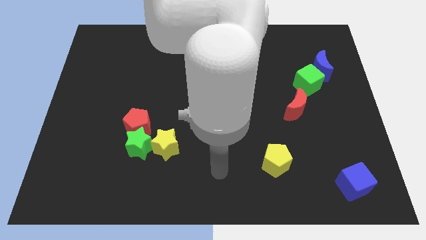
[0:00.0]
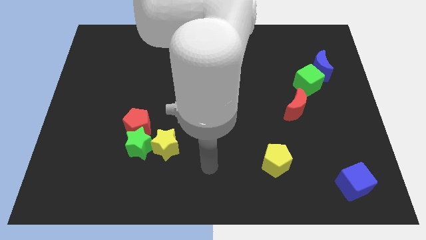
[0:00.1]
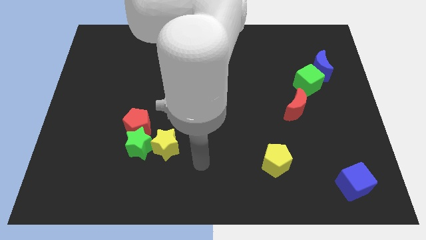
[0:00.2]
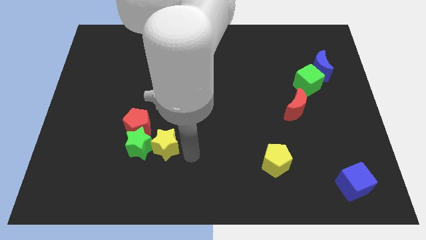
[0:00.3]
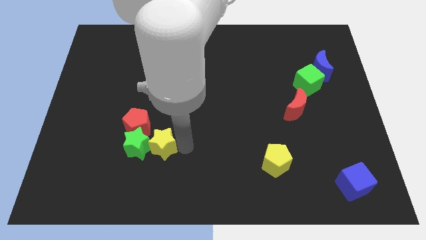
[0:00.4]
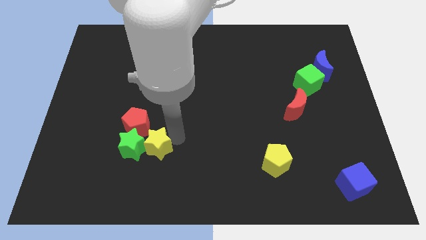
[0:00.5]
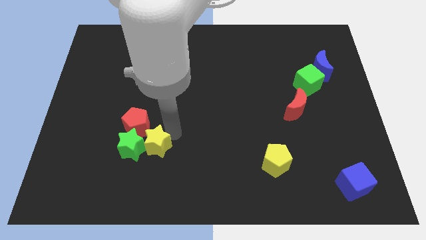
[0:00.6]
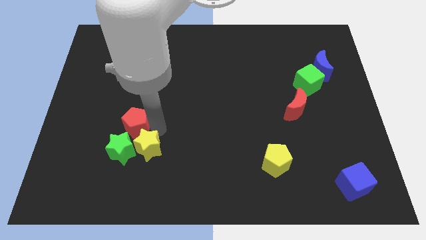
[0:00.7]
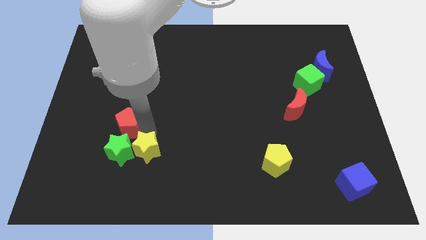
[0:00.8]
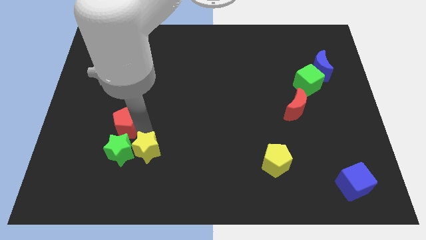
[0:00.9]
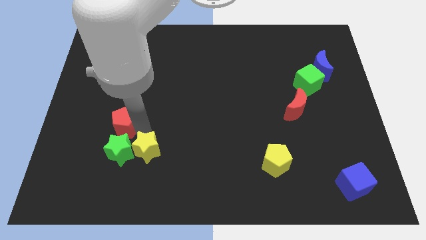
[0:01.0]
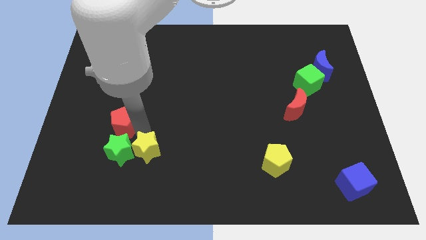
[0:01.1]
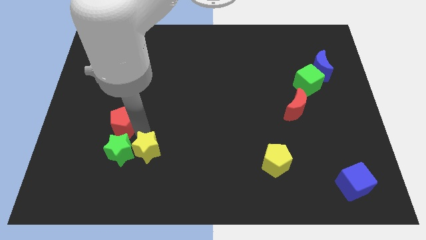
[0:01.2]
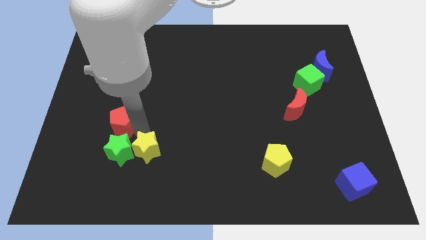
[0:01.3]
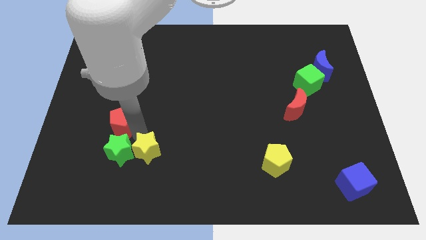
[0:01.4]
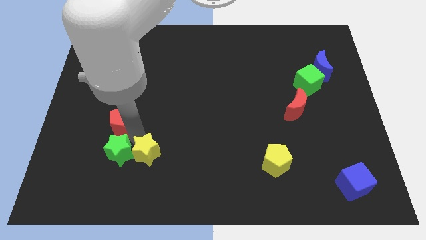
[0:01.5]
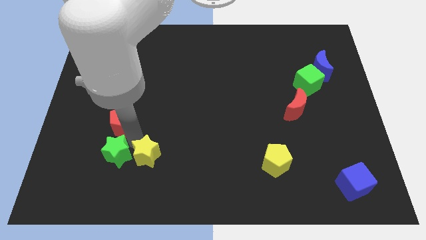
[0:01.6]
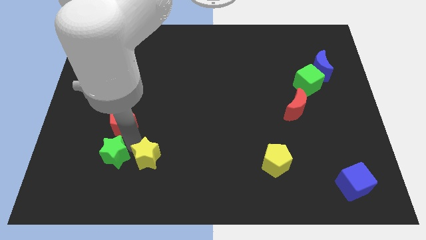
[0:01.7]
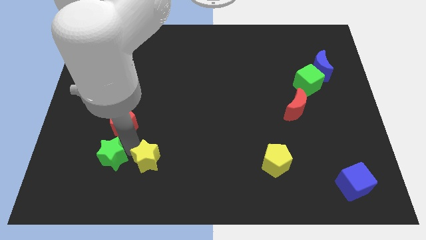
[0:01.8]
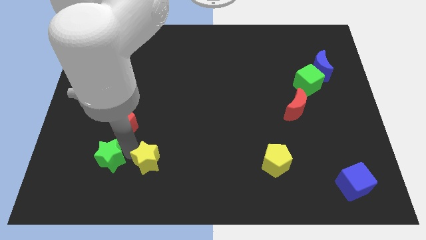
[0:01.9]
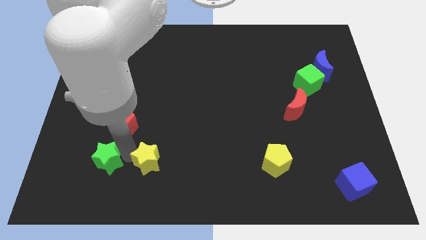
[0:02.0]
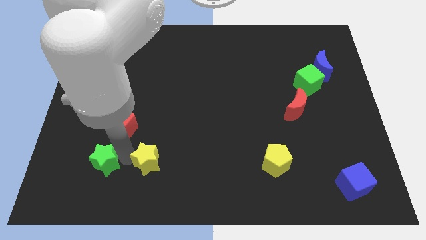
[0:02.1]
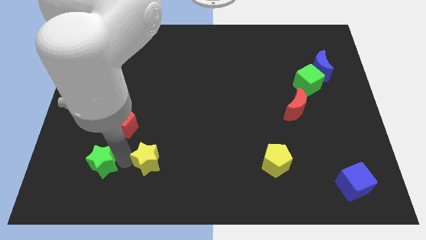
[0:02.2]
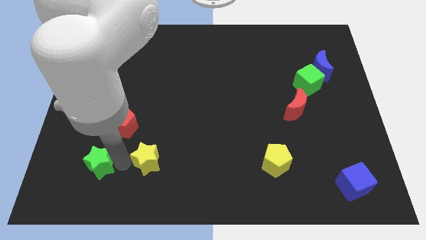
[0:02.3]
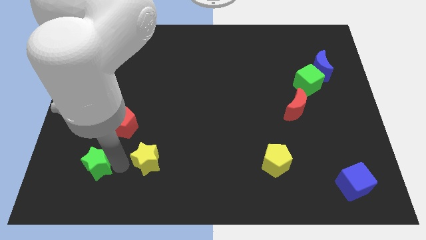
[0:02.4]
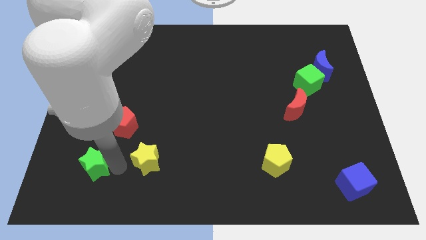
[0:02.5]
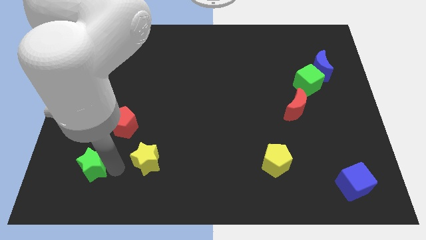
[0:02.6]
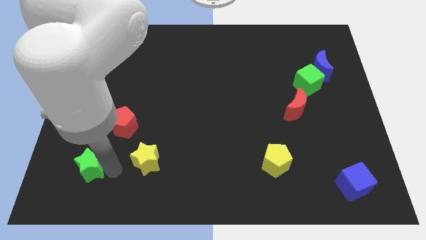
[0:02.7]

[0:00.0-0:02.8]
move the green star away from the yellow star and red pentagon

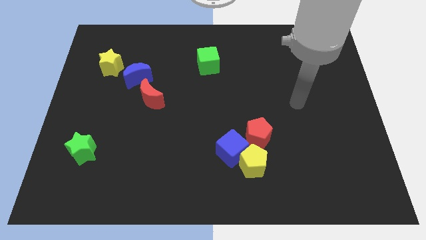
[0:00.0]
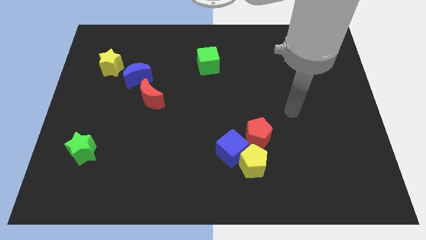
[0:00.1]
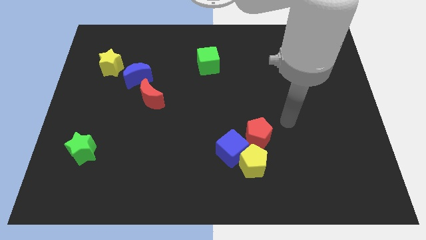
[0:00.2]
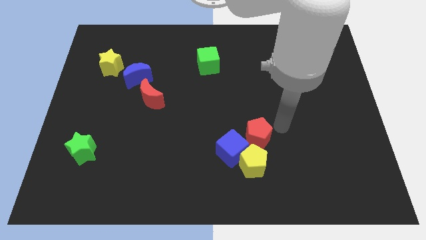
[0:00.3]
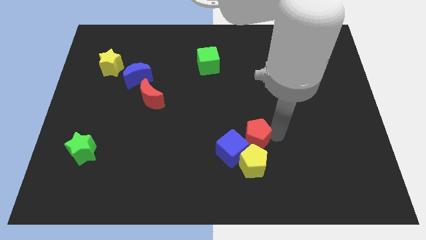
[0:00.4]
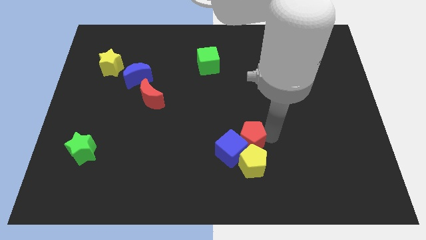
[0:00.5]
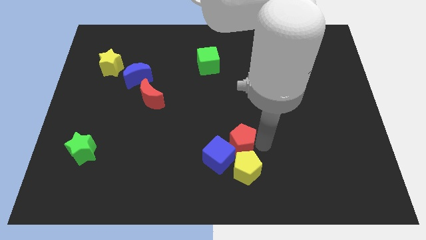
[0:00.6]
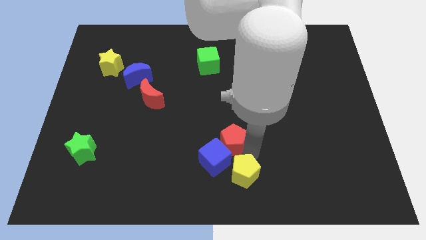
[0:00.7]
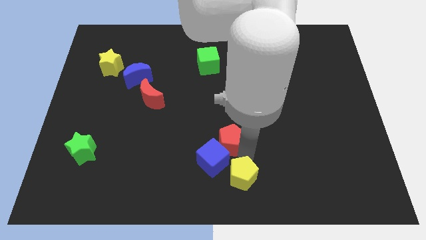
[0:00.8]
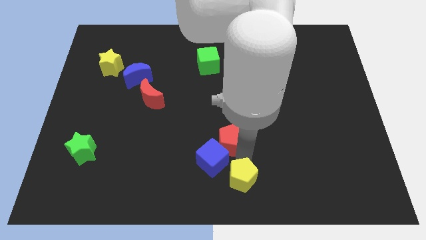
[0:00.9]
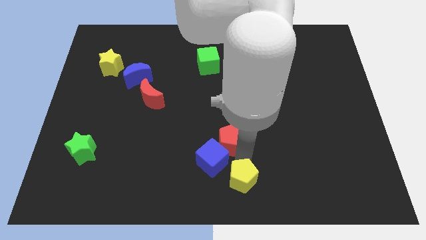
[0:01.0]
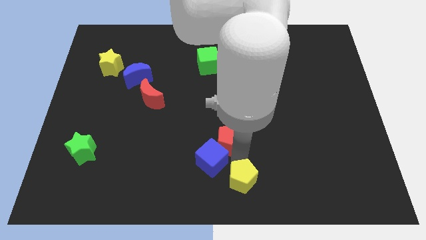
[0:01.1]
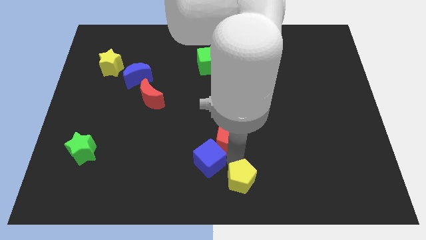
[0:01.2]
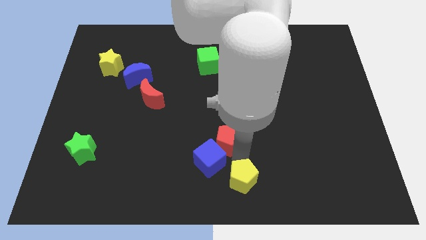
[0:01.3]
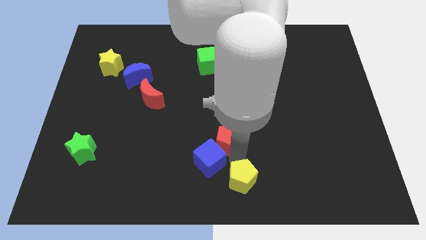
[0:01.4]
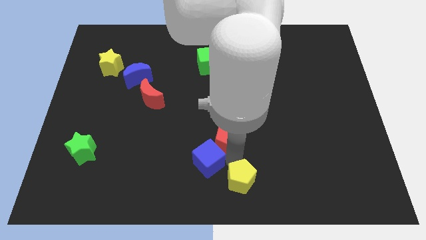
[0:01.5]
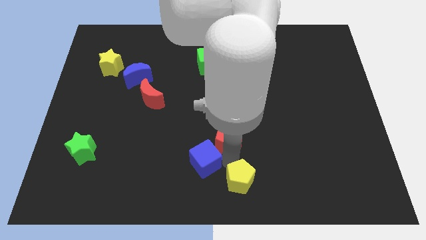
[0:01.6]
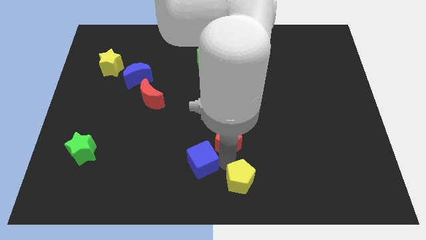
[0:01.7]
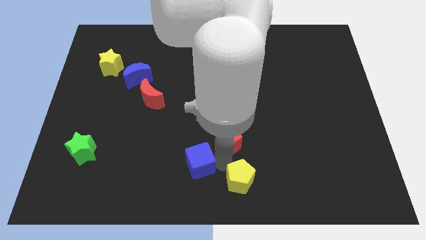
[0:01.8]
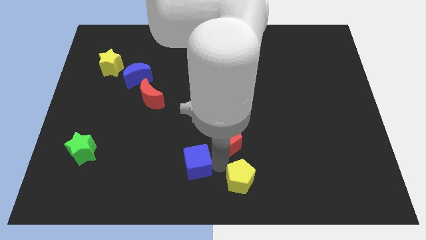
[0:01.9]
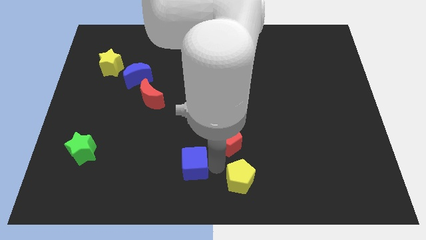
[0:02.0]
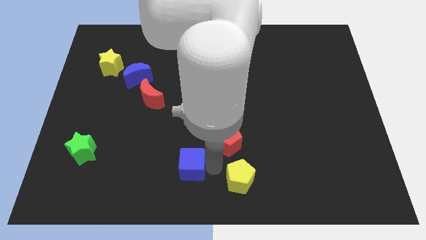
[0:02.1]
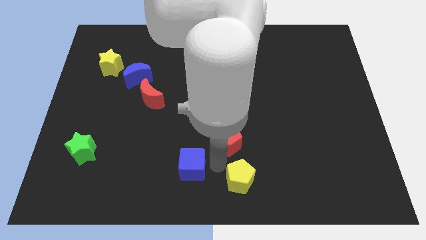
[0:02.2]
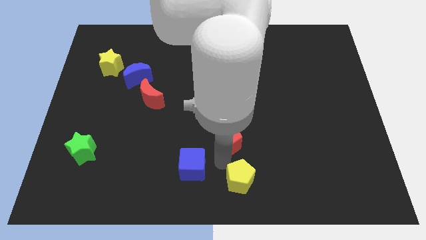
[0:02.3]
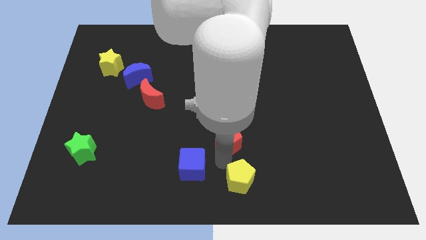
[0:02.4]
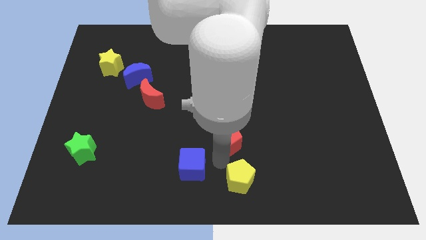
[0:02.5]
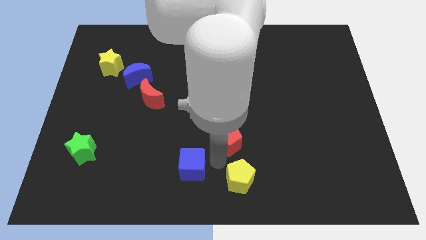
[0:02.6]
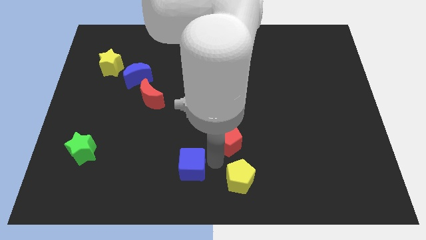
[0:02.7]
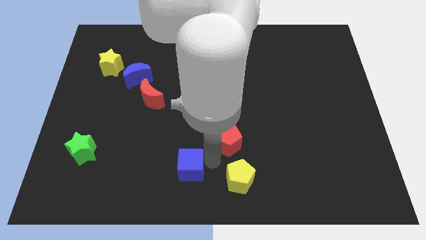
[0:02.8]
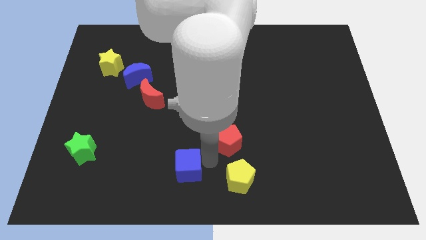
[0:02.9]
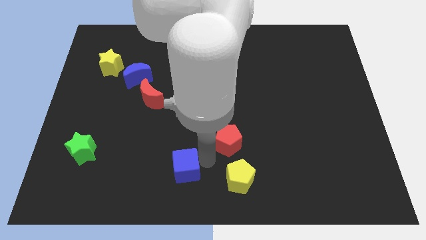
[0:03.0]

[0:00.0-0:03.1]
move the blue cube away from the yellow pentagon and red pentagon

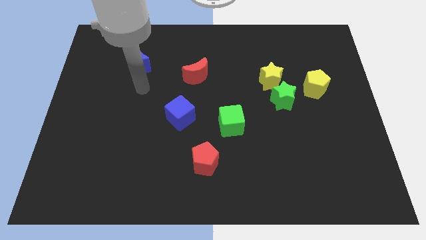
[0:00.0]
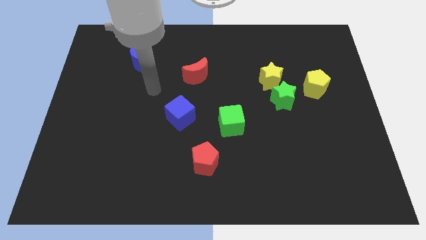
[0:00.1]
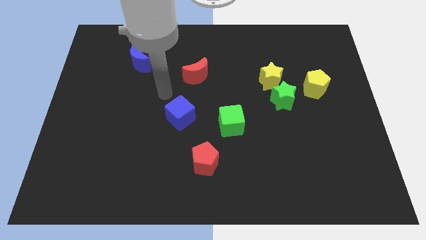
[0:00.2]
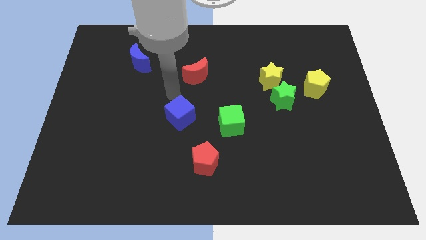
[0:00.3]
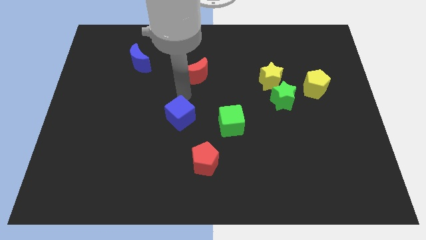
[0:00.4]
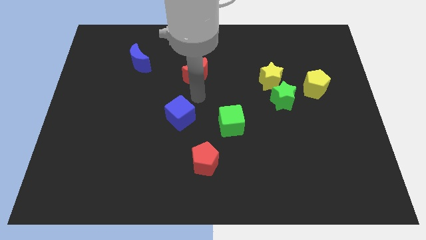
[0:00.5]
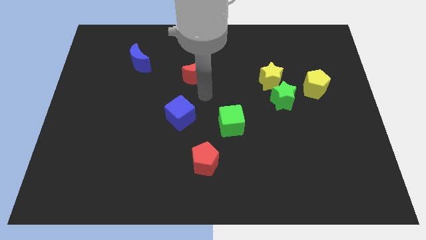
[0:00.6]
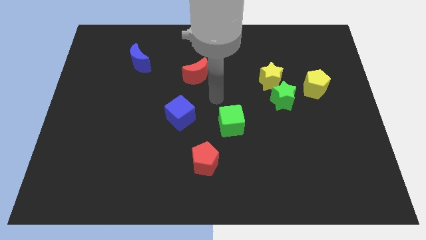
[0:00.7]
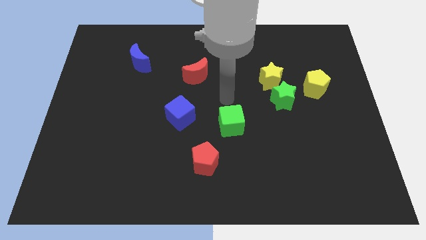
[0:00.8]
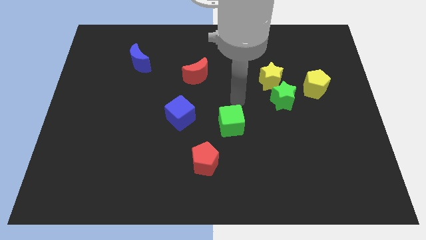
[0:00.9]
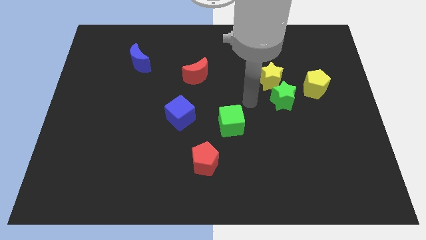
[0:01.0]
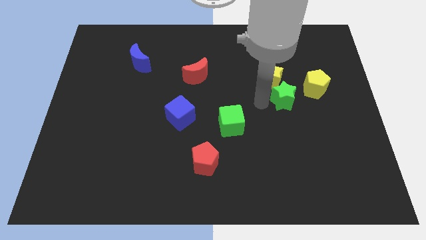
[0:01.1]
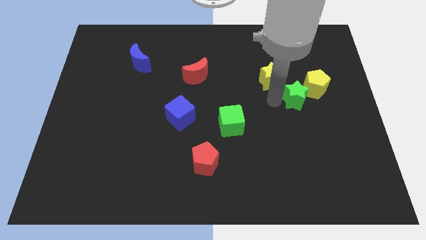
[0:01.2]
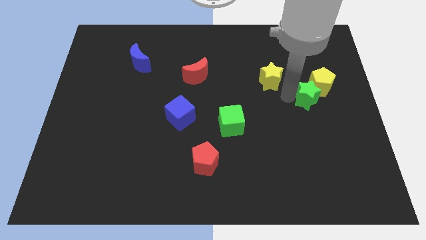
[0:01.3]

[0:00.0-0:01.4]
separate the yellow star from the green star

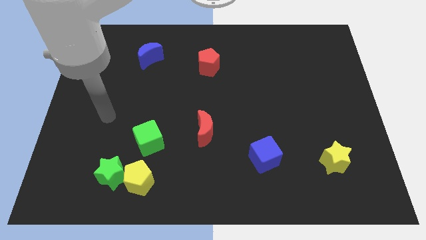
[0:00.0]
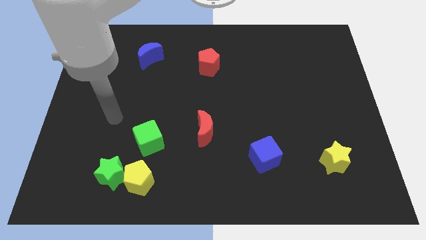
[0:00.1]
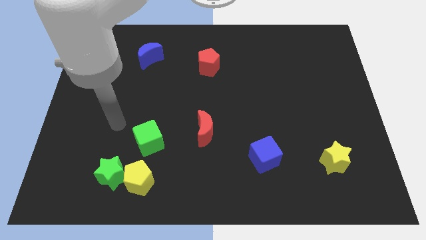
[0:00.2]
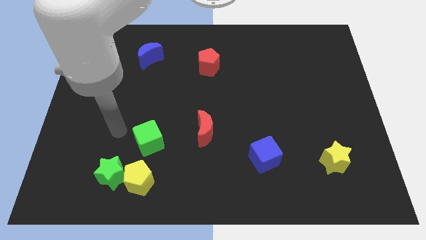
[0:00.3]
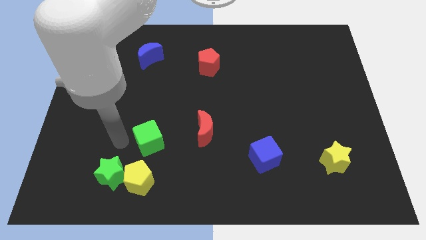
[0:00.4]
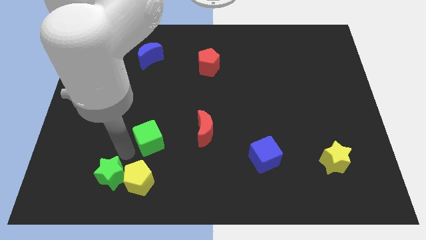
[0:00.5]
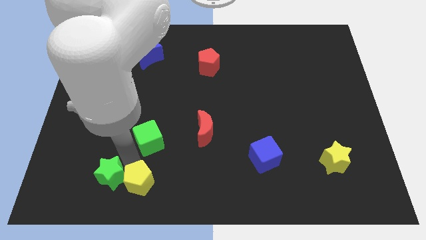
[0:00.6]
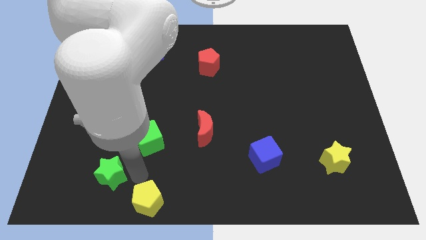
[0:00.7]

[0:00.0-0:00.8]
pull the green star apart from the yellow pentagon

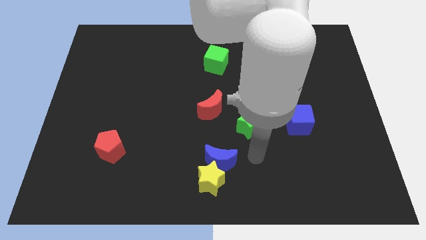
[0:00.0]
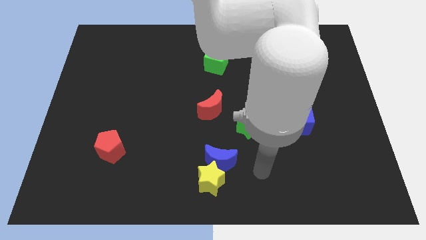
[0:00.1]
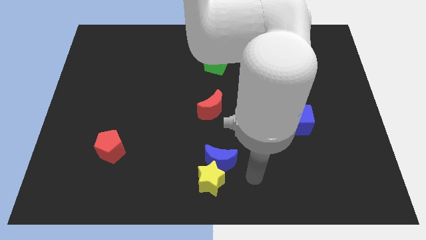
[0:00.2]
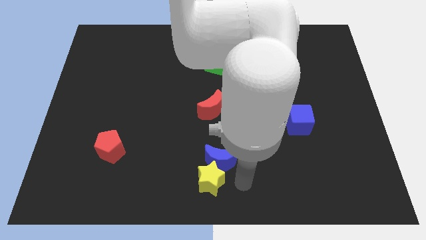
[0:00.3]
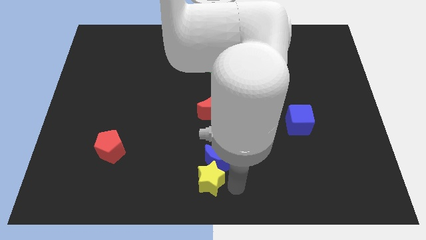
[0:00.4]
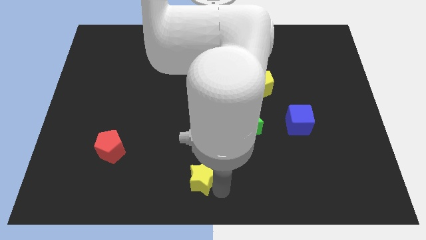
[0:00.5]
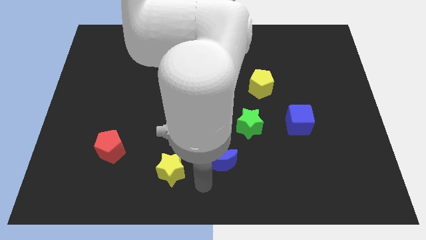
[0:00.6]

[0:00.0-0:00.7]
separate the blue moon from the yellow star

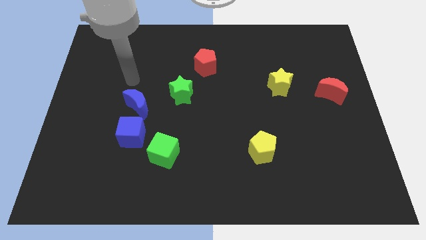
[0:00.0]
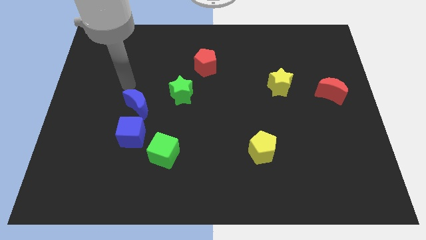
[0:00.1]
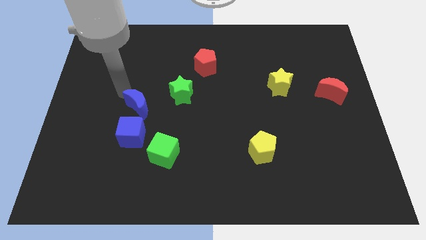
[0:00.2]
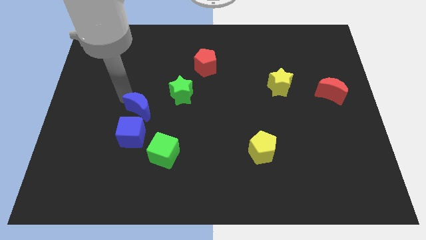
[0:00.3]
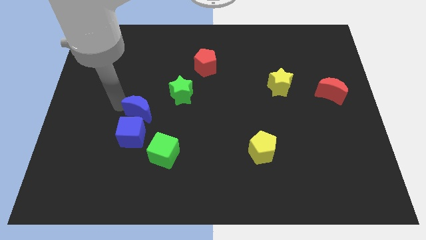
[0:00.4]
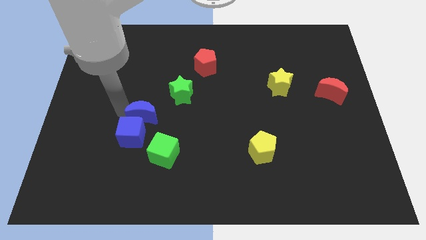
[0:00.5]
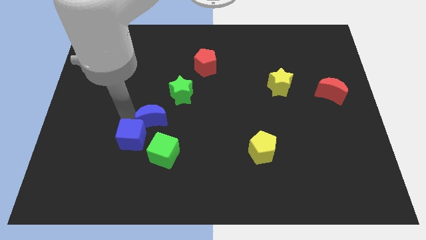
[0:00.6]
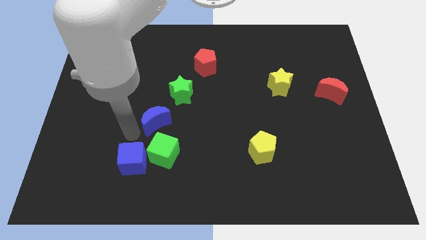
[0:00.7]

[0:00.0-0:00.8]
pull the blue moon apart from the blue cube
